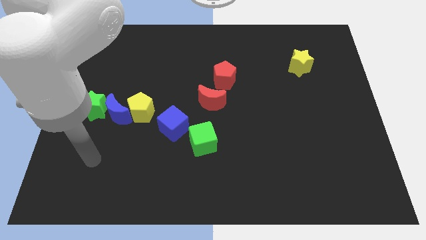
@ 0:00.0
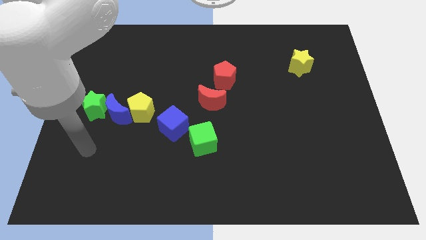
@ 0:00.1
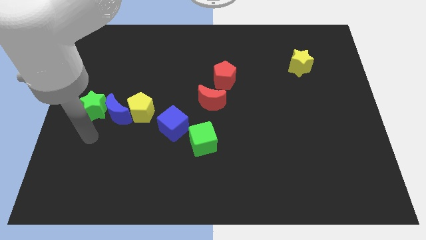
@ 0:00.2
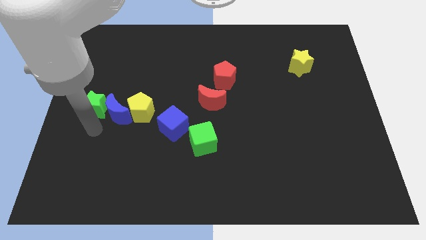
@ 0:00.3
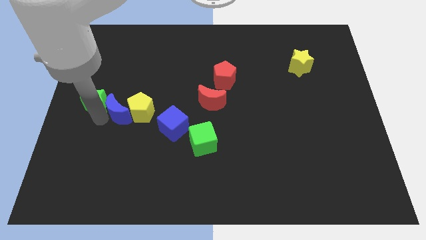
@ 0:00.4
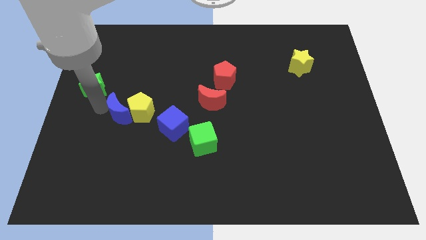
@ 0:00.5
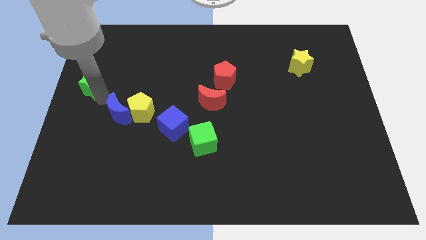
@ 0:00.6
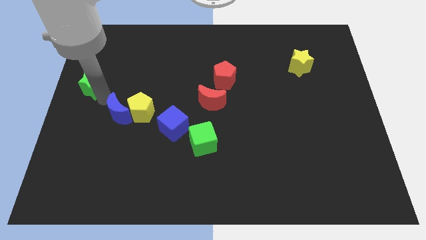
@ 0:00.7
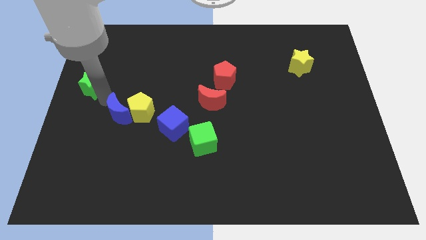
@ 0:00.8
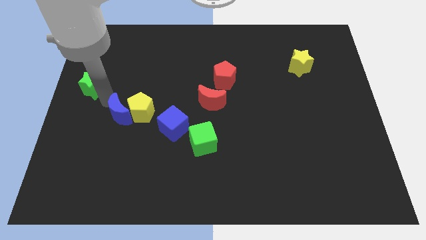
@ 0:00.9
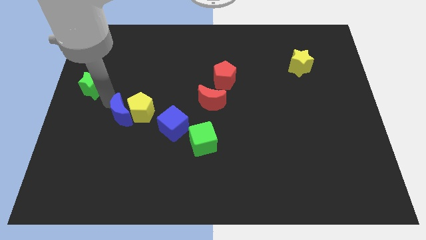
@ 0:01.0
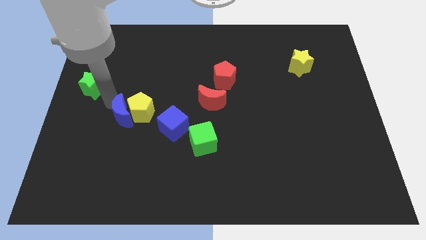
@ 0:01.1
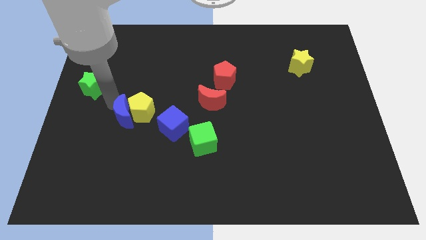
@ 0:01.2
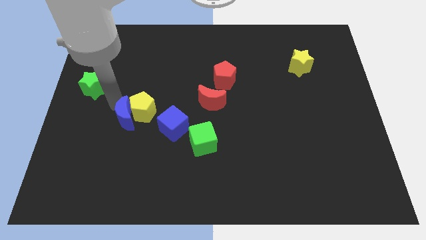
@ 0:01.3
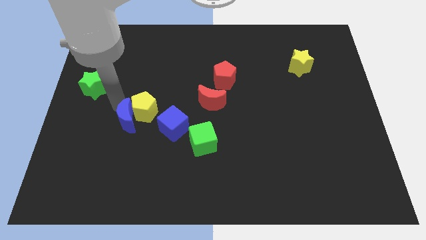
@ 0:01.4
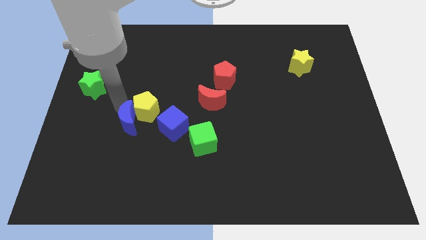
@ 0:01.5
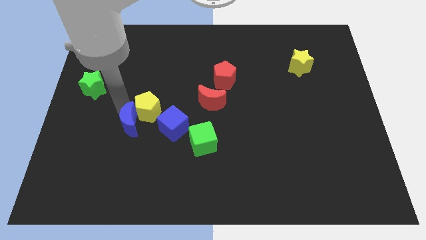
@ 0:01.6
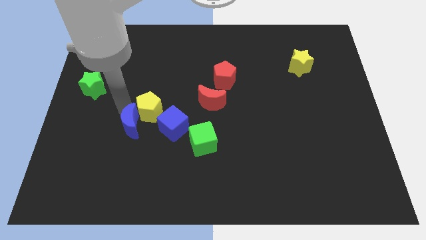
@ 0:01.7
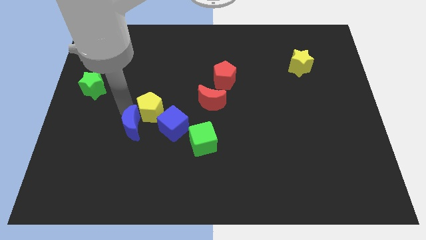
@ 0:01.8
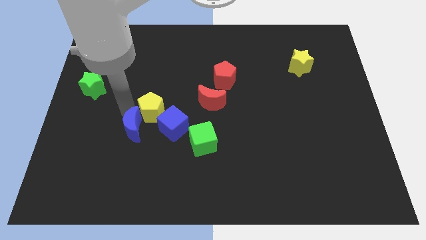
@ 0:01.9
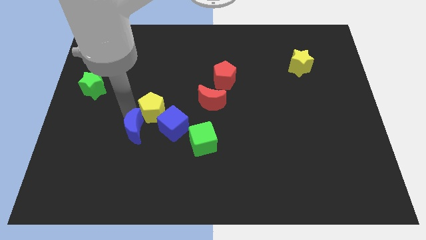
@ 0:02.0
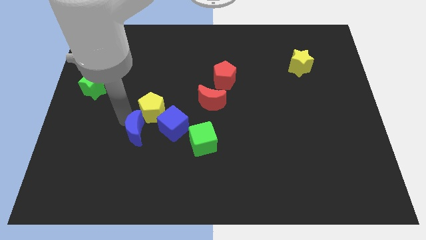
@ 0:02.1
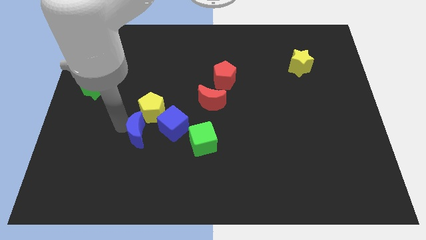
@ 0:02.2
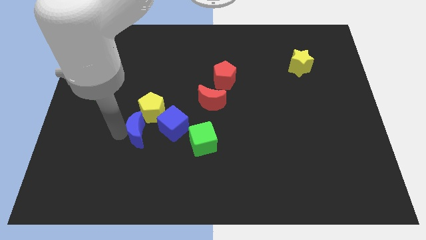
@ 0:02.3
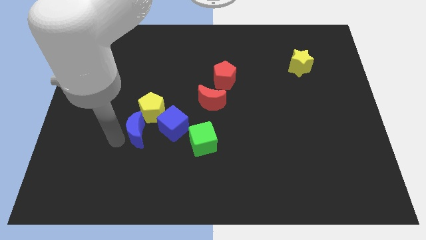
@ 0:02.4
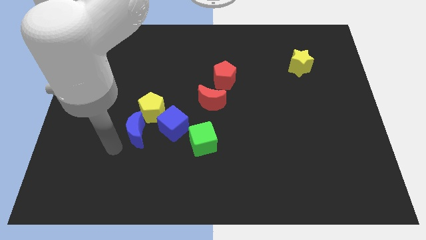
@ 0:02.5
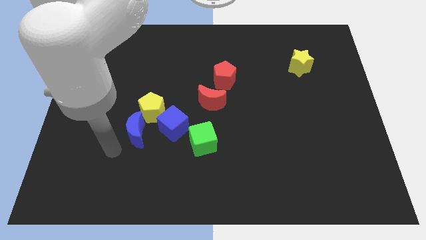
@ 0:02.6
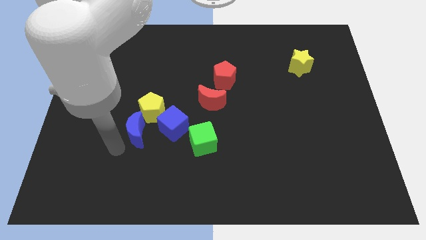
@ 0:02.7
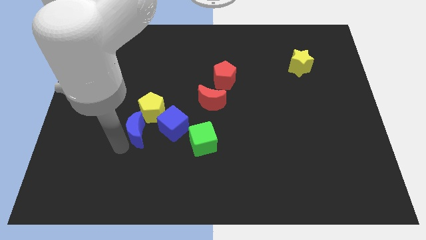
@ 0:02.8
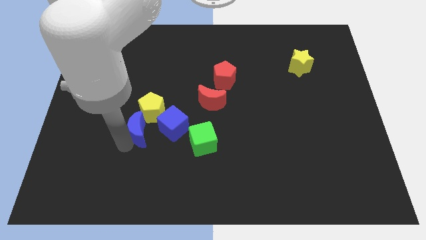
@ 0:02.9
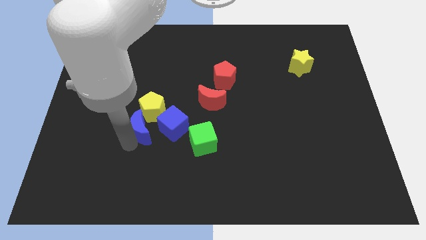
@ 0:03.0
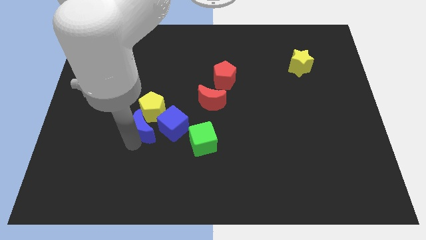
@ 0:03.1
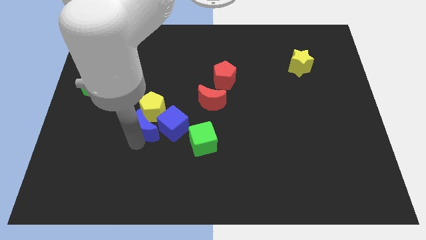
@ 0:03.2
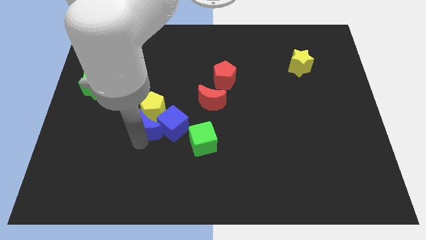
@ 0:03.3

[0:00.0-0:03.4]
move the blue moon a little right

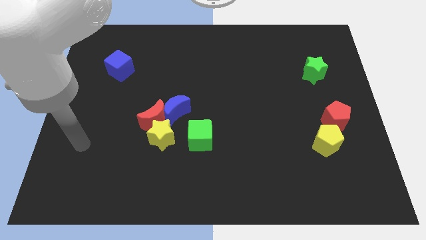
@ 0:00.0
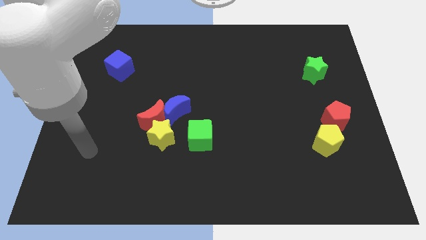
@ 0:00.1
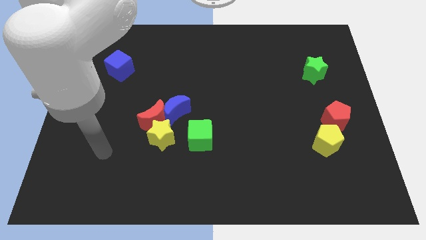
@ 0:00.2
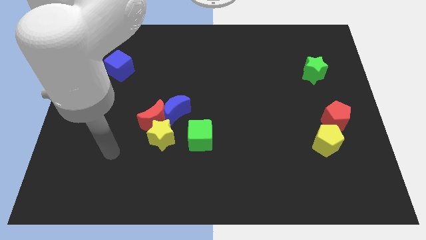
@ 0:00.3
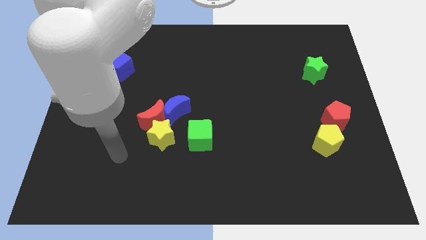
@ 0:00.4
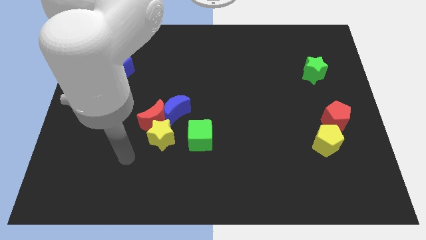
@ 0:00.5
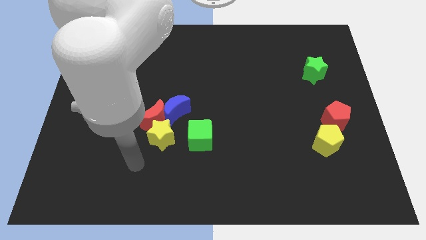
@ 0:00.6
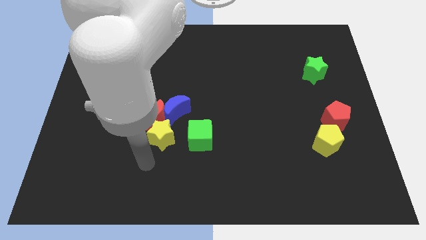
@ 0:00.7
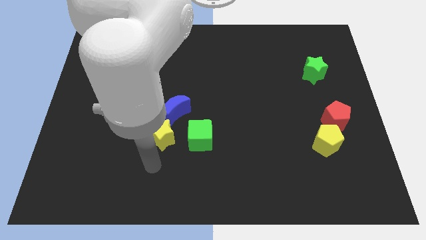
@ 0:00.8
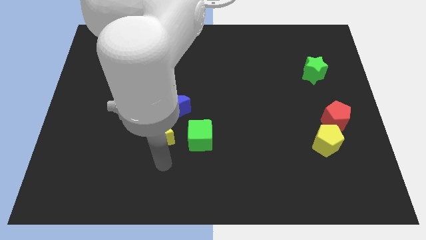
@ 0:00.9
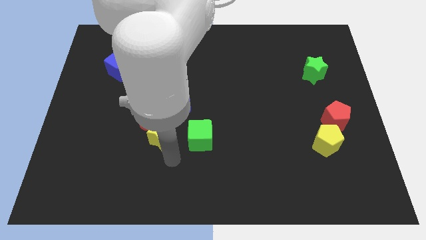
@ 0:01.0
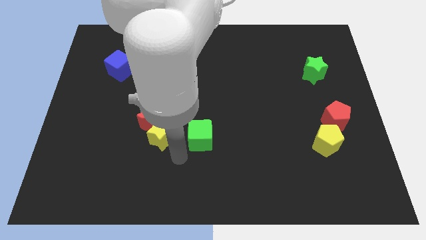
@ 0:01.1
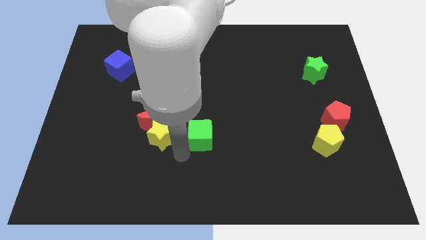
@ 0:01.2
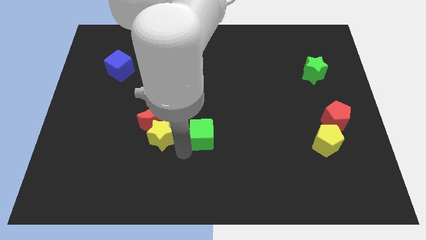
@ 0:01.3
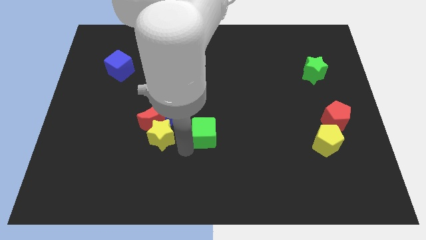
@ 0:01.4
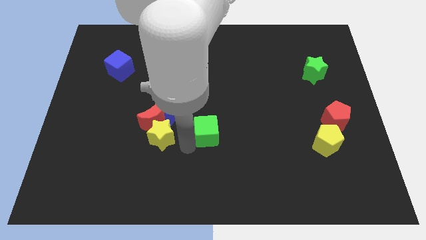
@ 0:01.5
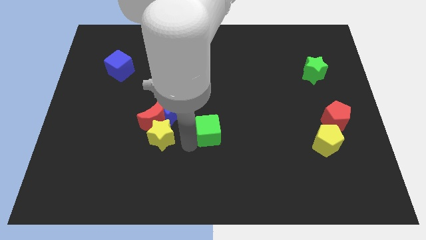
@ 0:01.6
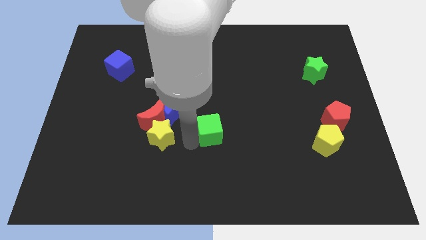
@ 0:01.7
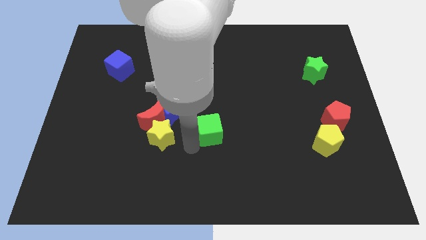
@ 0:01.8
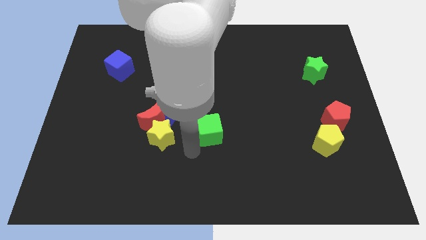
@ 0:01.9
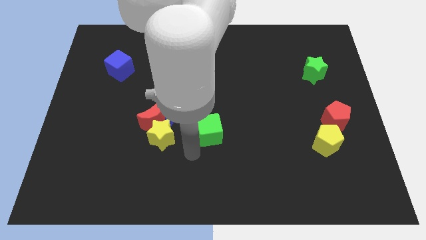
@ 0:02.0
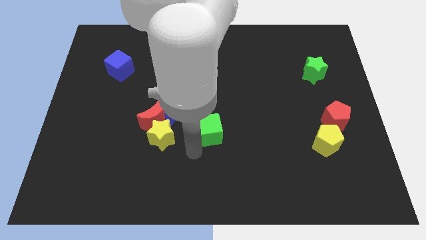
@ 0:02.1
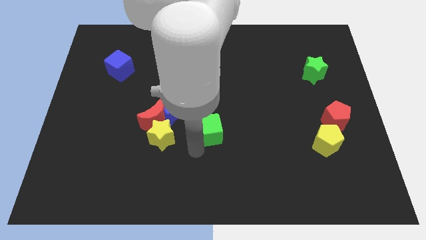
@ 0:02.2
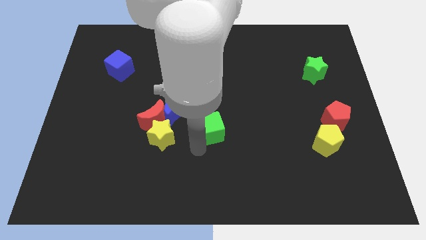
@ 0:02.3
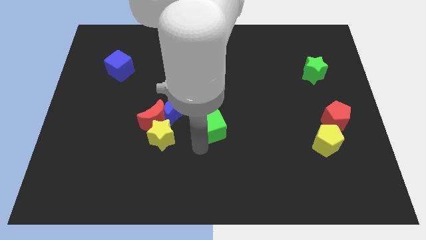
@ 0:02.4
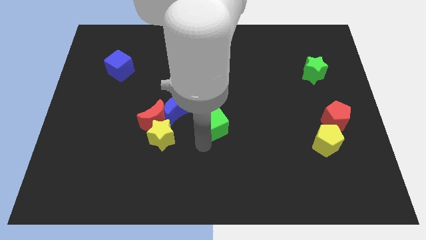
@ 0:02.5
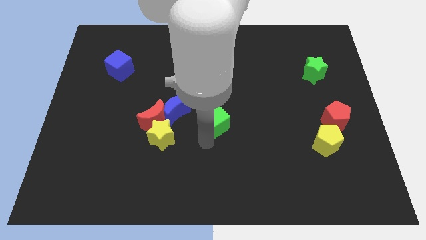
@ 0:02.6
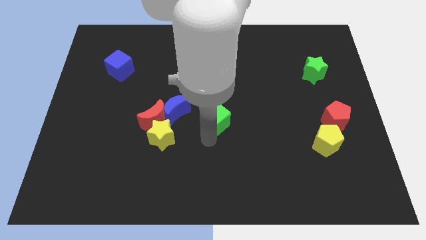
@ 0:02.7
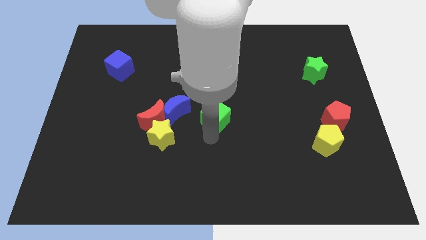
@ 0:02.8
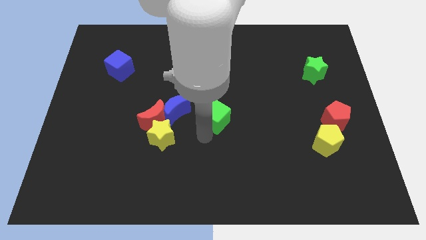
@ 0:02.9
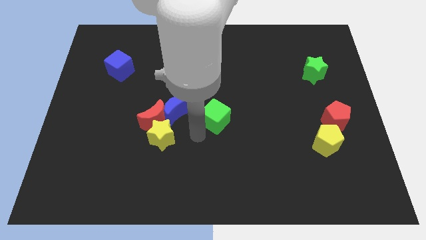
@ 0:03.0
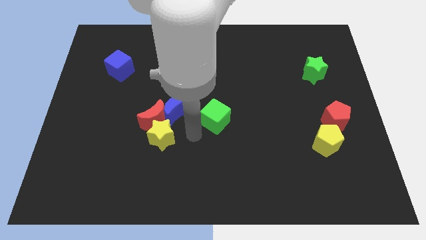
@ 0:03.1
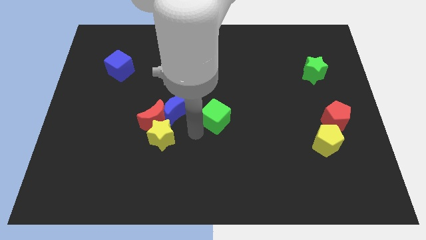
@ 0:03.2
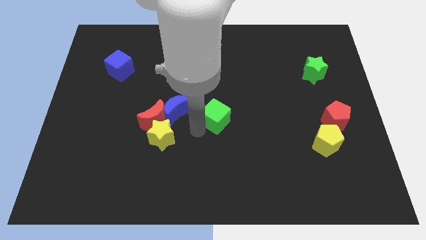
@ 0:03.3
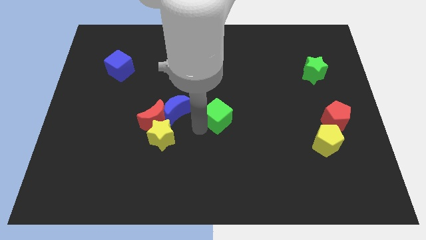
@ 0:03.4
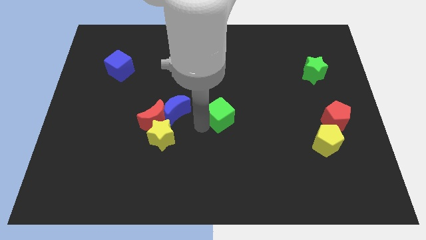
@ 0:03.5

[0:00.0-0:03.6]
slightly slide the green cube up and to the right

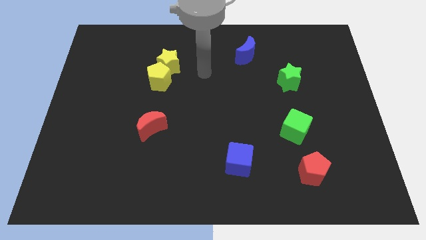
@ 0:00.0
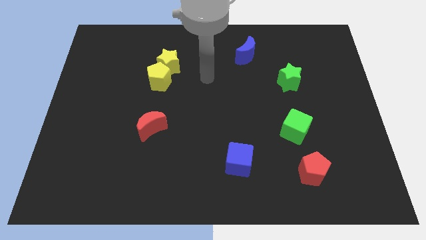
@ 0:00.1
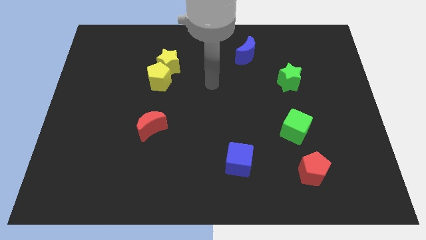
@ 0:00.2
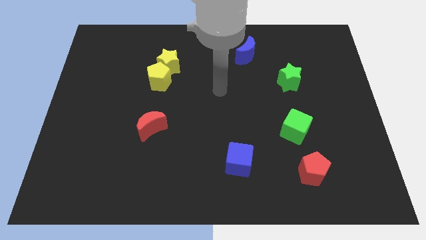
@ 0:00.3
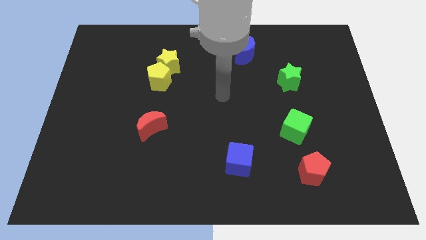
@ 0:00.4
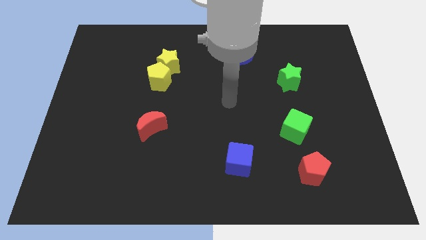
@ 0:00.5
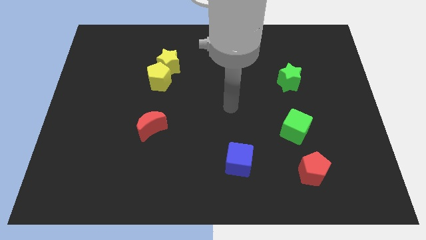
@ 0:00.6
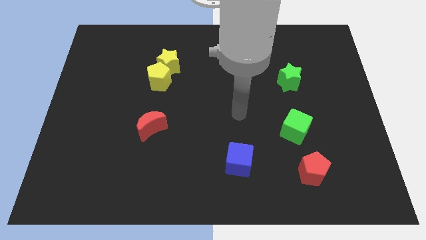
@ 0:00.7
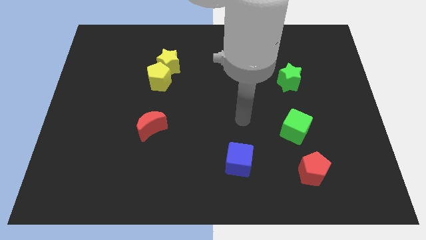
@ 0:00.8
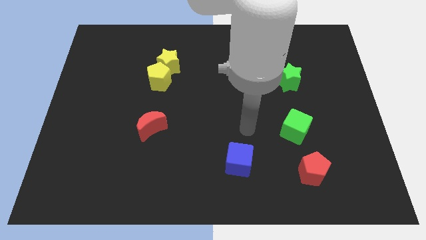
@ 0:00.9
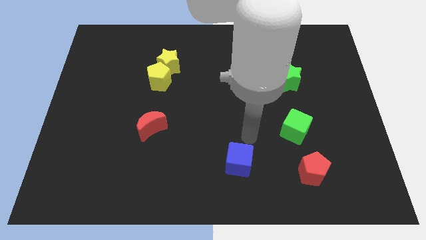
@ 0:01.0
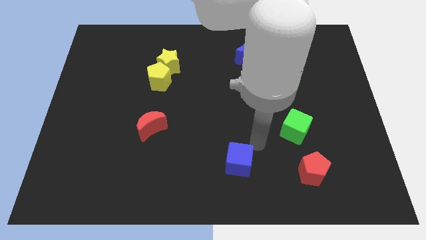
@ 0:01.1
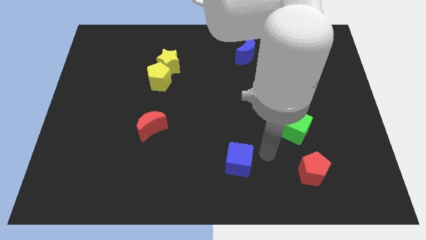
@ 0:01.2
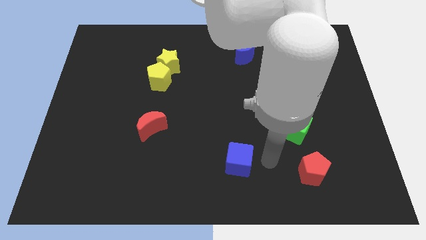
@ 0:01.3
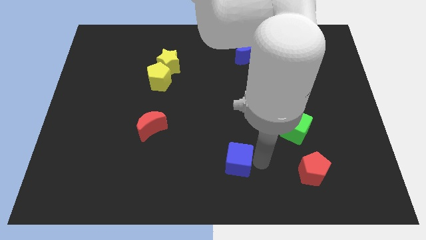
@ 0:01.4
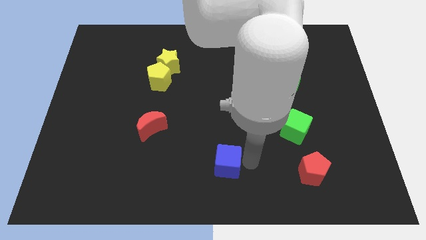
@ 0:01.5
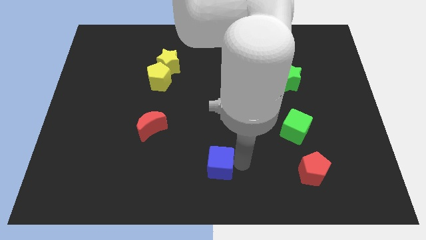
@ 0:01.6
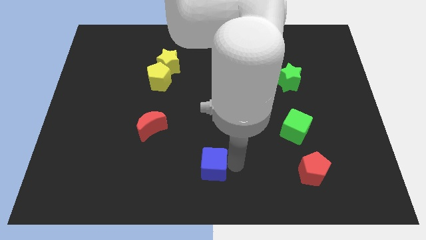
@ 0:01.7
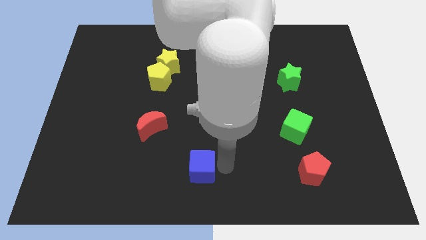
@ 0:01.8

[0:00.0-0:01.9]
move the blue cube to the left a bit
